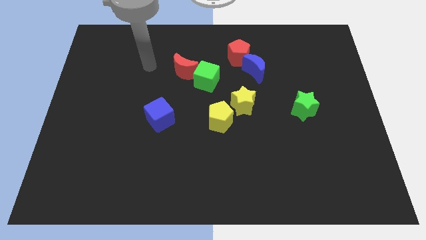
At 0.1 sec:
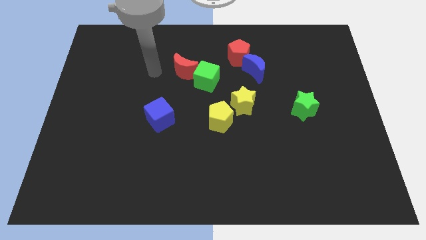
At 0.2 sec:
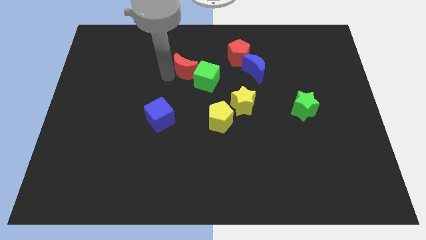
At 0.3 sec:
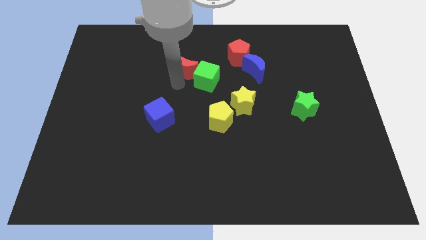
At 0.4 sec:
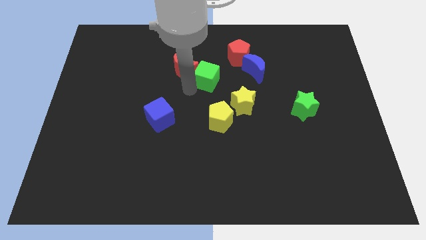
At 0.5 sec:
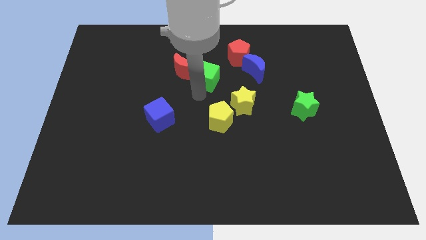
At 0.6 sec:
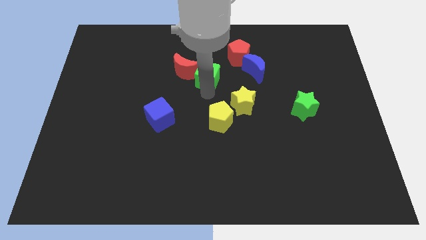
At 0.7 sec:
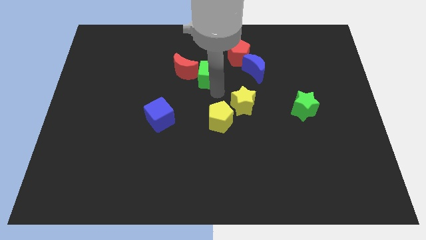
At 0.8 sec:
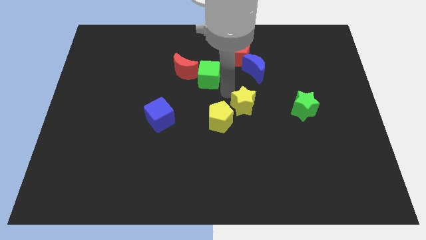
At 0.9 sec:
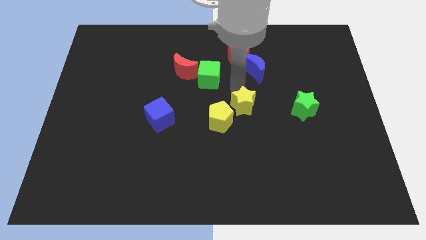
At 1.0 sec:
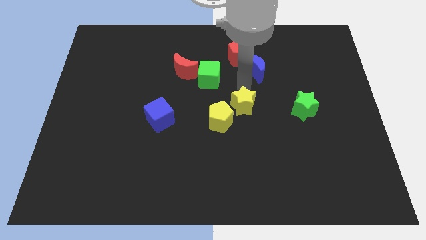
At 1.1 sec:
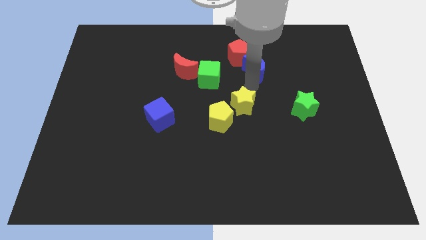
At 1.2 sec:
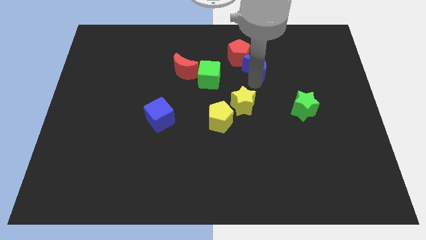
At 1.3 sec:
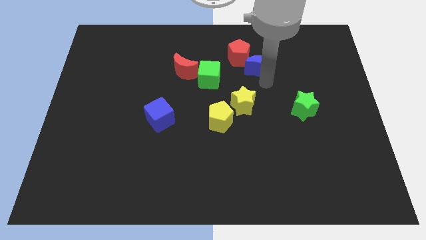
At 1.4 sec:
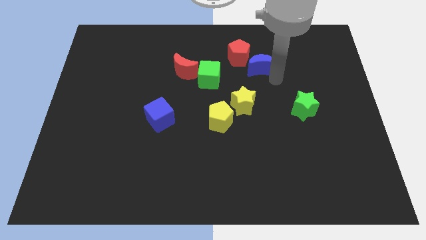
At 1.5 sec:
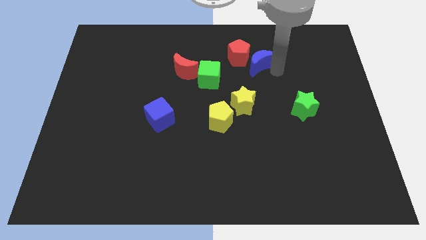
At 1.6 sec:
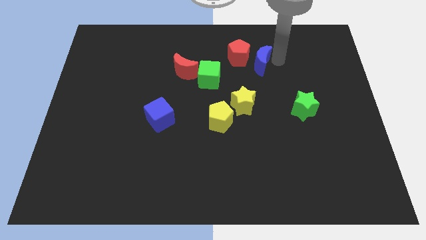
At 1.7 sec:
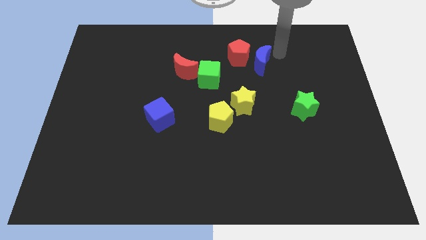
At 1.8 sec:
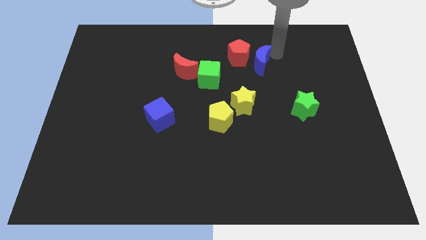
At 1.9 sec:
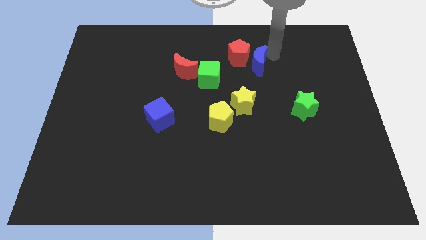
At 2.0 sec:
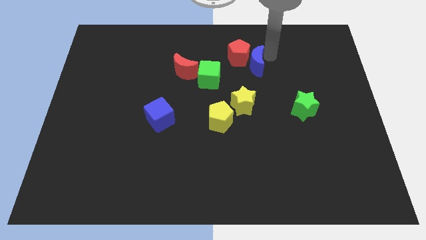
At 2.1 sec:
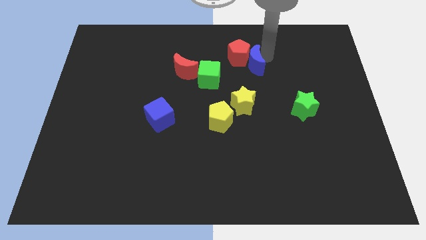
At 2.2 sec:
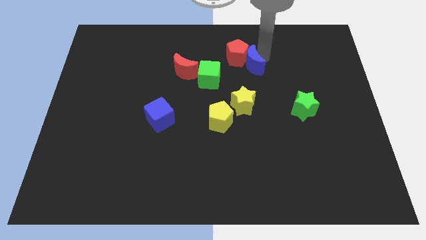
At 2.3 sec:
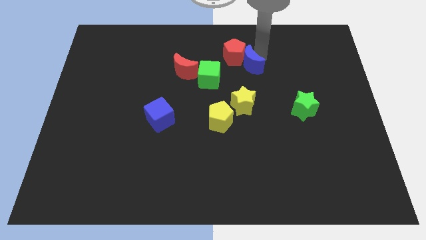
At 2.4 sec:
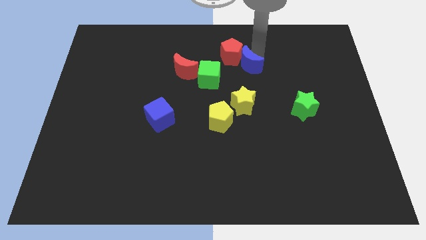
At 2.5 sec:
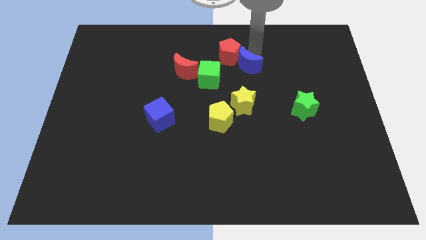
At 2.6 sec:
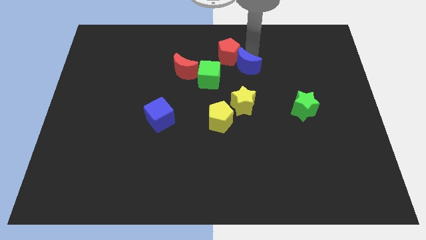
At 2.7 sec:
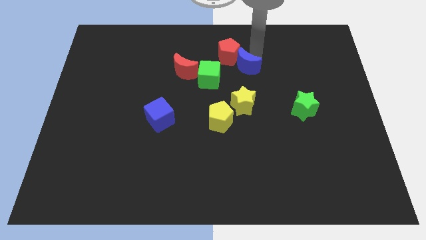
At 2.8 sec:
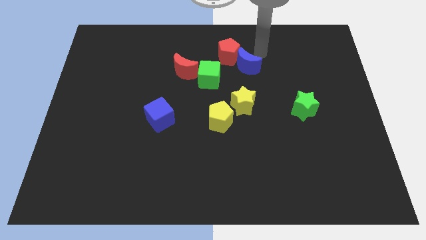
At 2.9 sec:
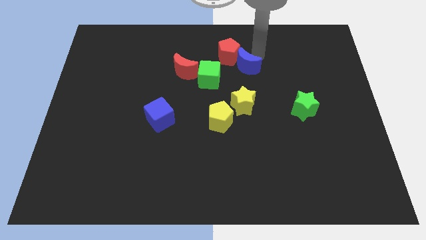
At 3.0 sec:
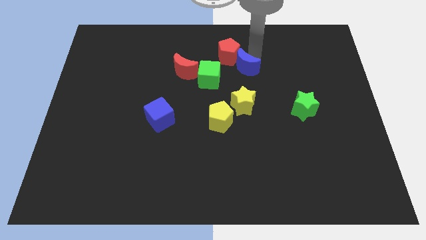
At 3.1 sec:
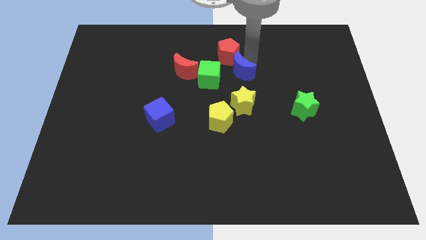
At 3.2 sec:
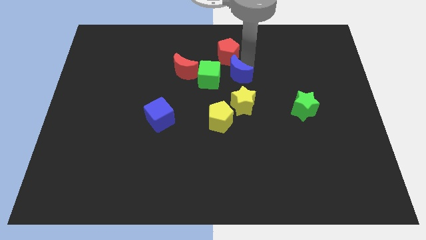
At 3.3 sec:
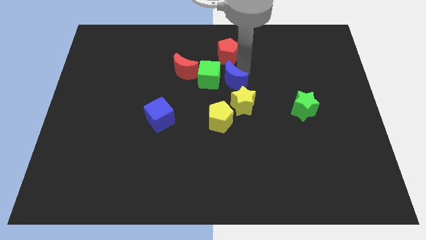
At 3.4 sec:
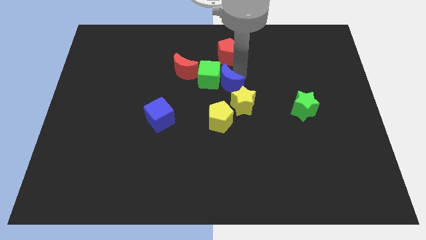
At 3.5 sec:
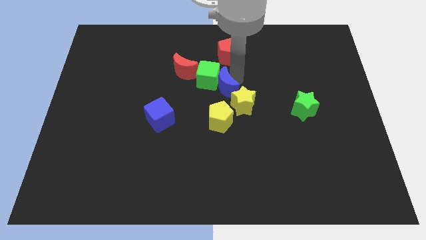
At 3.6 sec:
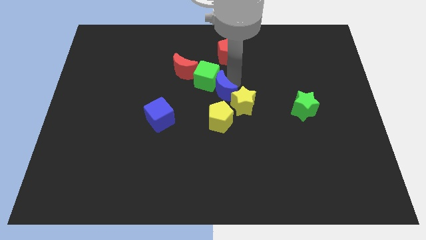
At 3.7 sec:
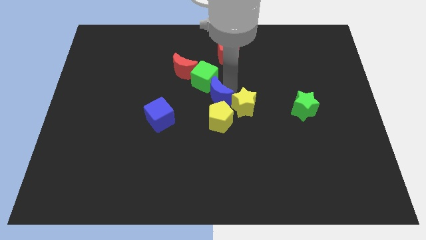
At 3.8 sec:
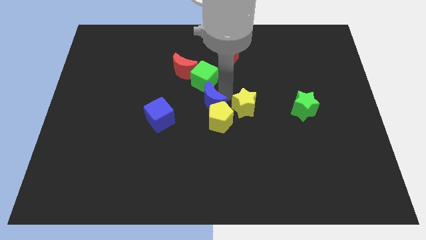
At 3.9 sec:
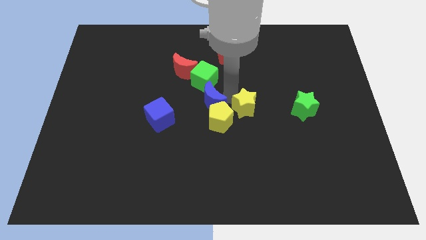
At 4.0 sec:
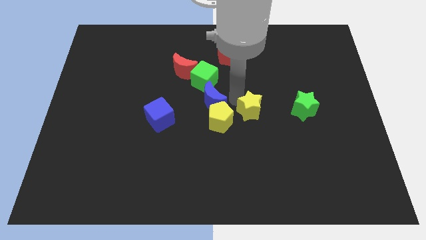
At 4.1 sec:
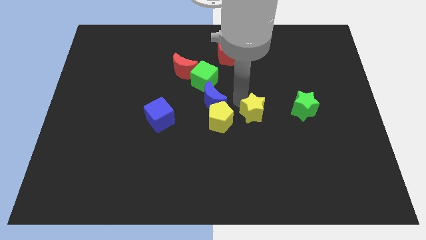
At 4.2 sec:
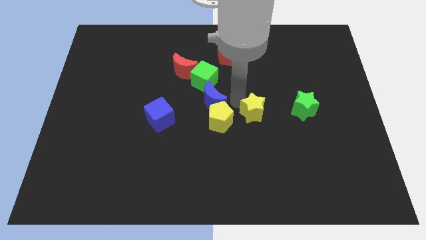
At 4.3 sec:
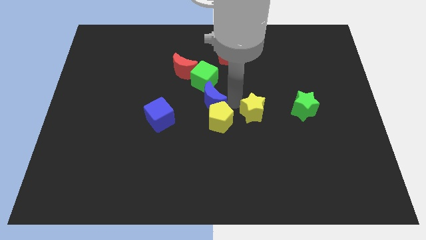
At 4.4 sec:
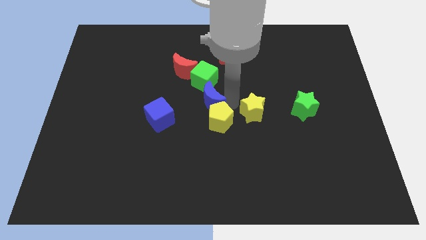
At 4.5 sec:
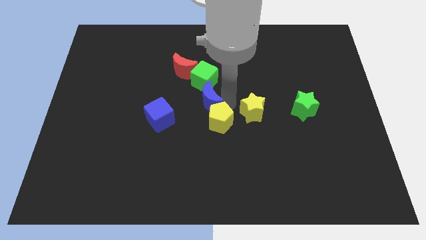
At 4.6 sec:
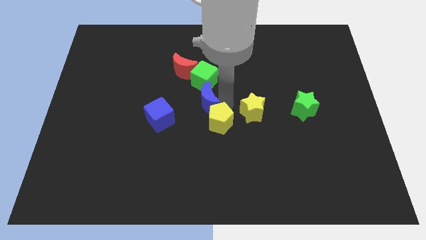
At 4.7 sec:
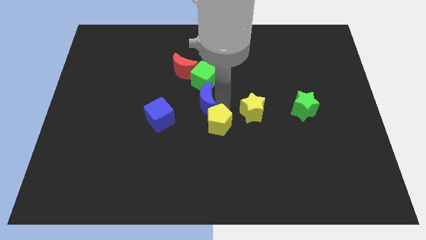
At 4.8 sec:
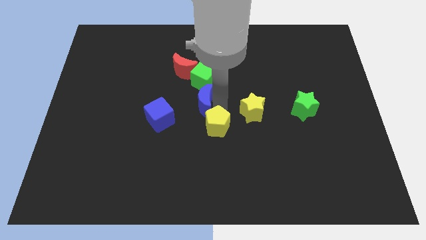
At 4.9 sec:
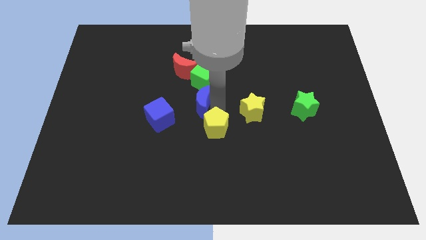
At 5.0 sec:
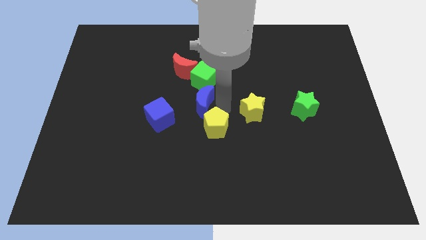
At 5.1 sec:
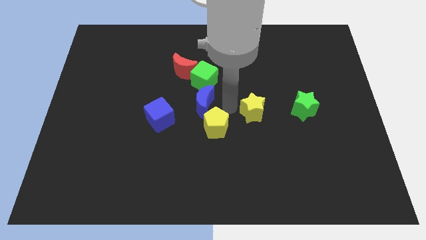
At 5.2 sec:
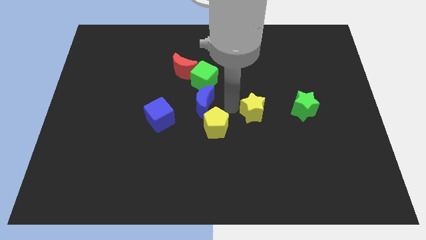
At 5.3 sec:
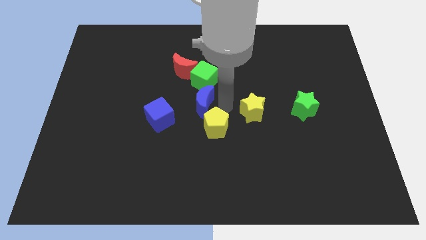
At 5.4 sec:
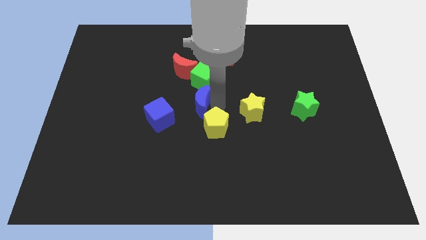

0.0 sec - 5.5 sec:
push the blue moon to the bottom side of the red moon

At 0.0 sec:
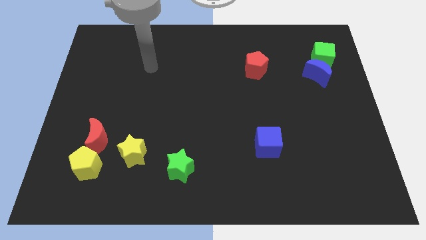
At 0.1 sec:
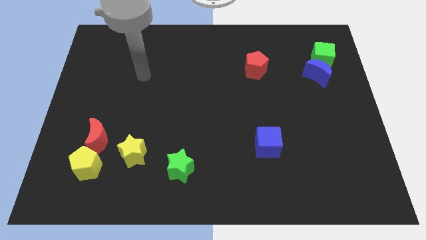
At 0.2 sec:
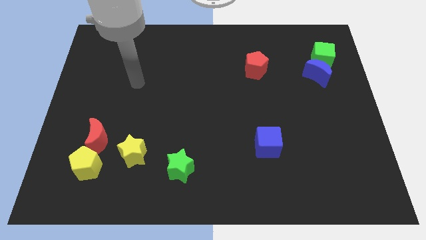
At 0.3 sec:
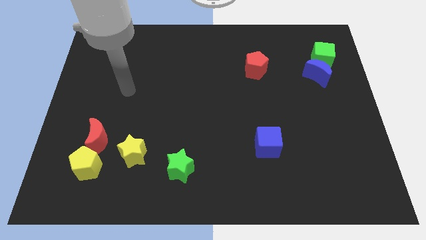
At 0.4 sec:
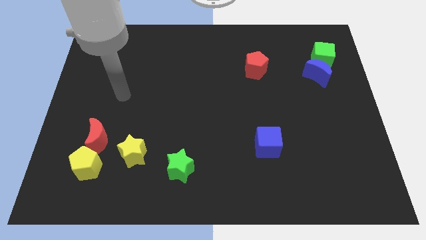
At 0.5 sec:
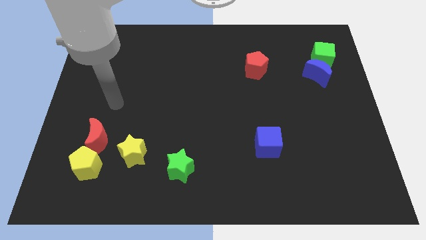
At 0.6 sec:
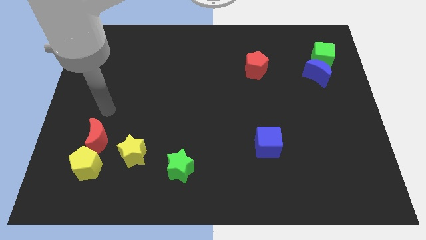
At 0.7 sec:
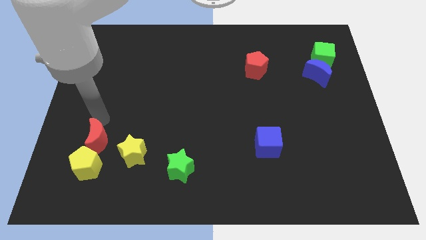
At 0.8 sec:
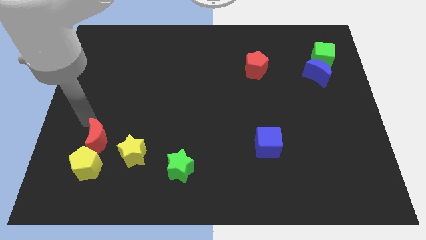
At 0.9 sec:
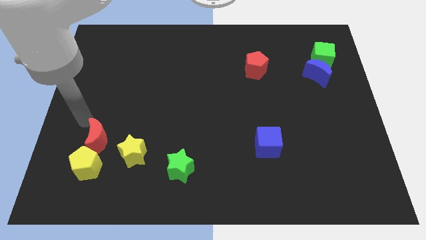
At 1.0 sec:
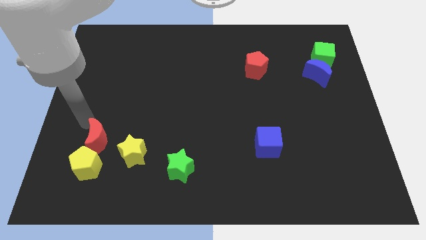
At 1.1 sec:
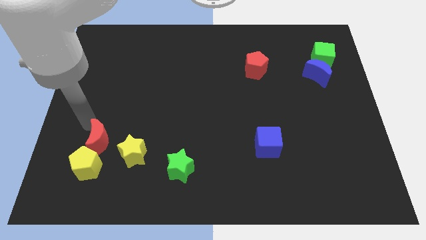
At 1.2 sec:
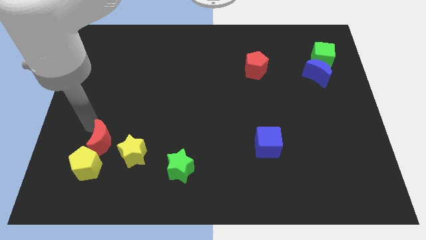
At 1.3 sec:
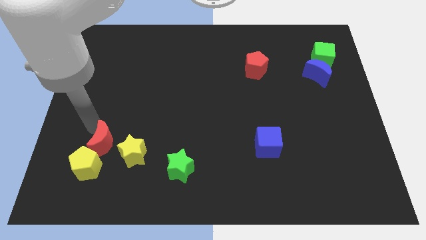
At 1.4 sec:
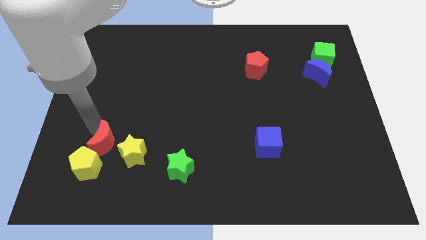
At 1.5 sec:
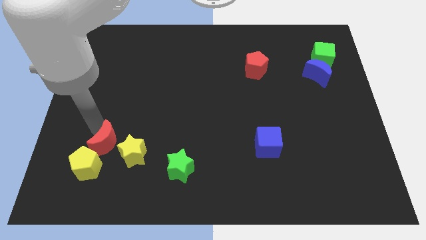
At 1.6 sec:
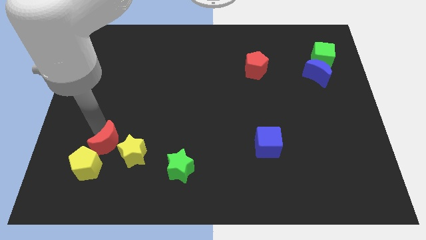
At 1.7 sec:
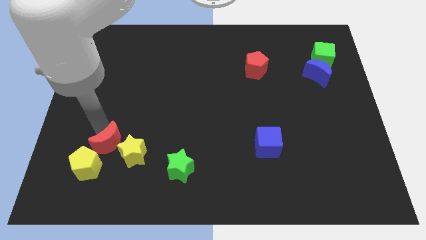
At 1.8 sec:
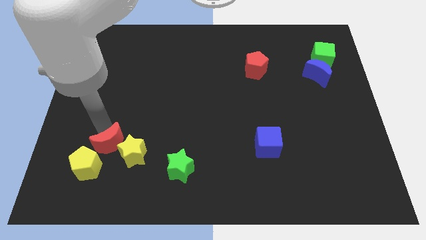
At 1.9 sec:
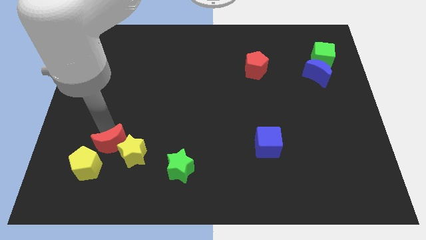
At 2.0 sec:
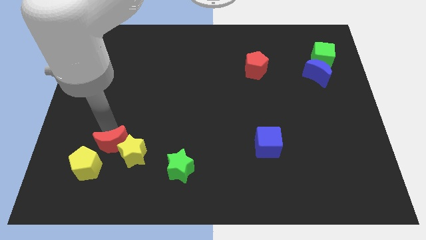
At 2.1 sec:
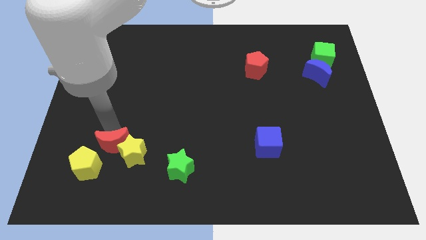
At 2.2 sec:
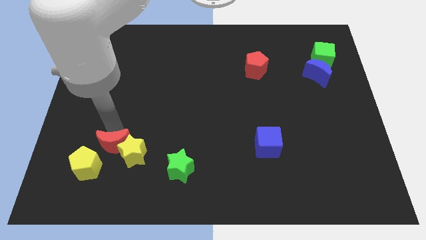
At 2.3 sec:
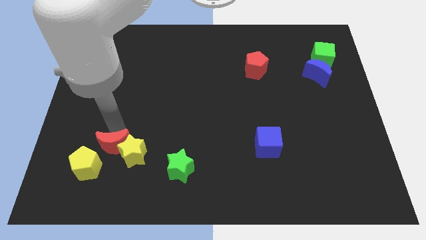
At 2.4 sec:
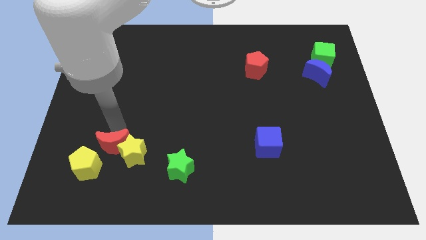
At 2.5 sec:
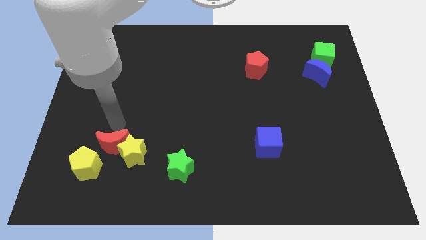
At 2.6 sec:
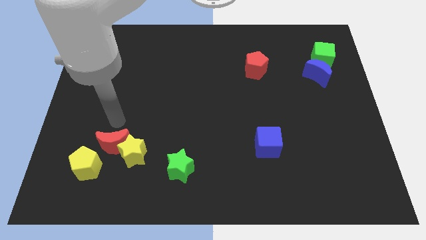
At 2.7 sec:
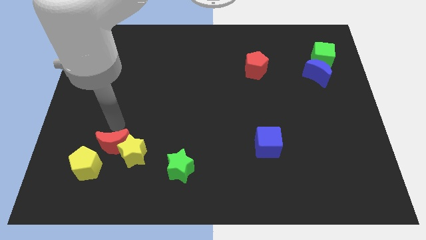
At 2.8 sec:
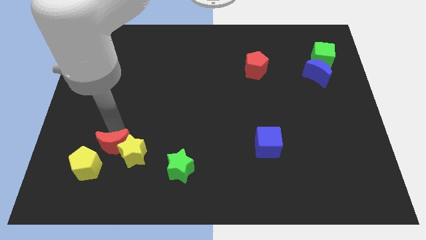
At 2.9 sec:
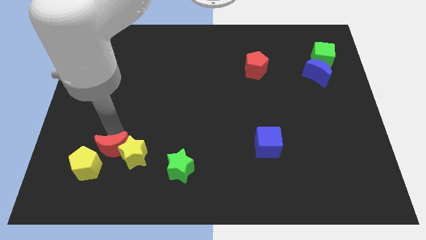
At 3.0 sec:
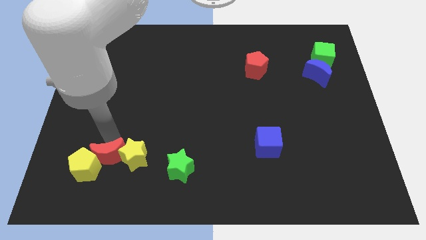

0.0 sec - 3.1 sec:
push the red moon just left of the green star
